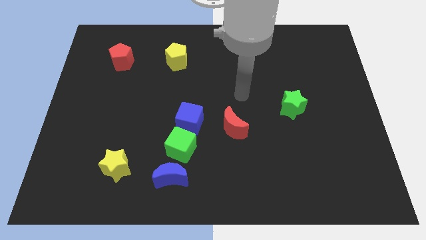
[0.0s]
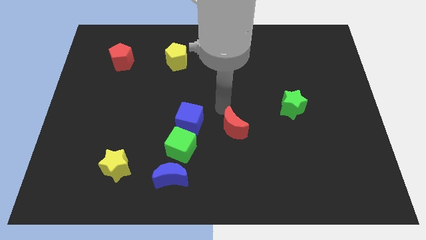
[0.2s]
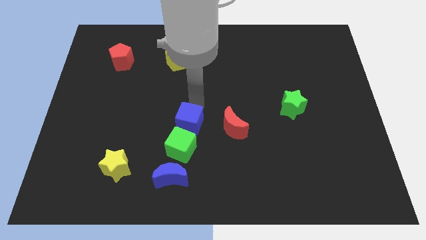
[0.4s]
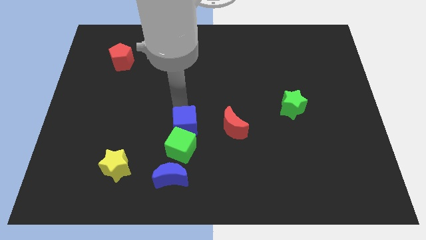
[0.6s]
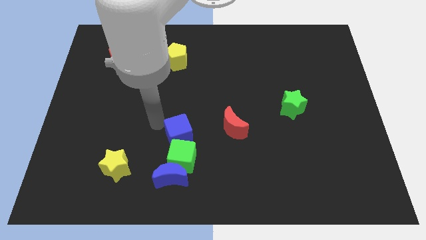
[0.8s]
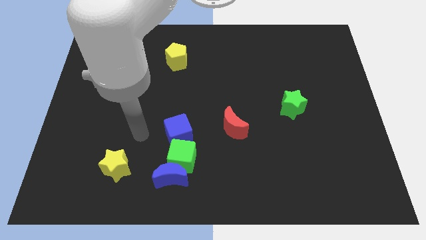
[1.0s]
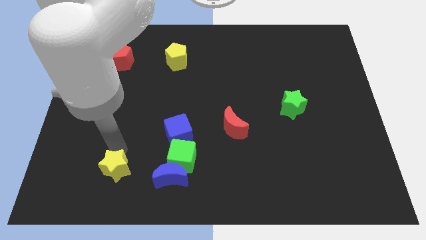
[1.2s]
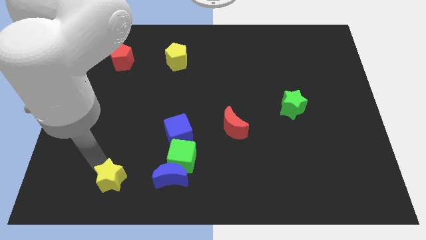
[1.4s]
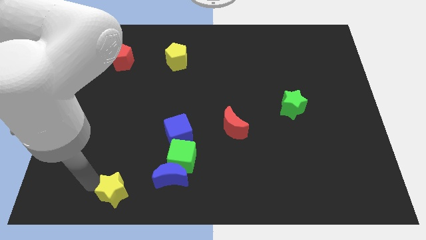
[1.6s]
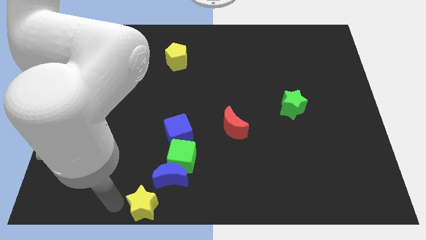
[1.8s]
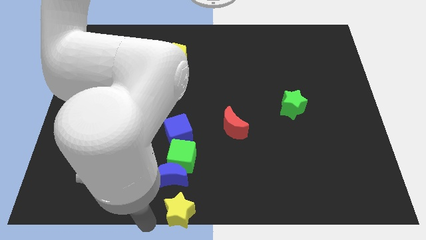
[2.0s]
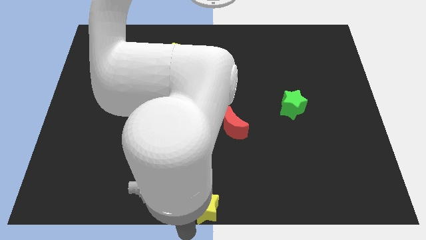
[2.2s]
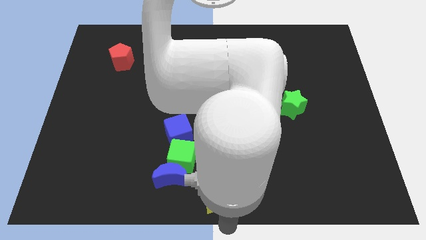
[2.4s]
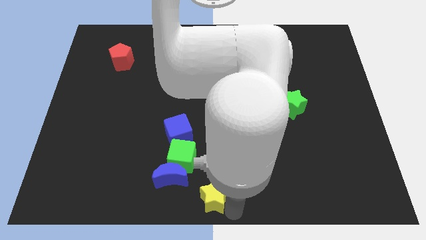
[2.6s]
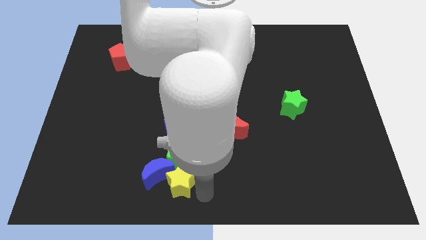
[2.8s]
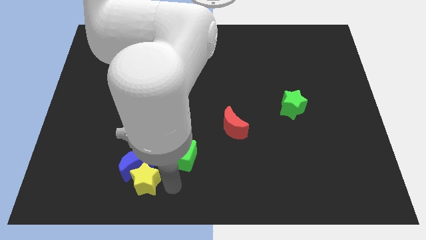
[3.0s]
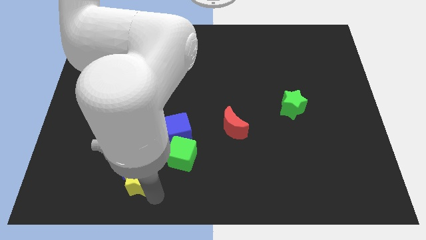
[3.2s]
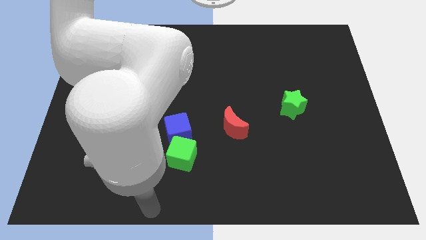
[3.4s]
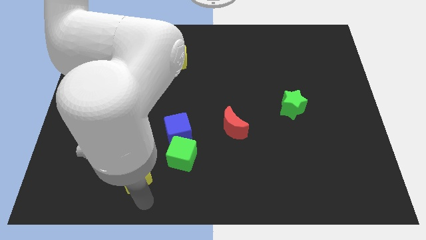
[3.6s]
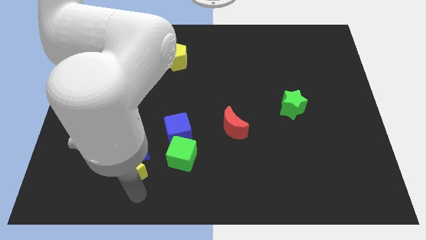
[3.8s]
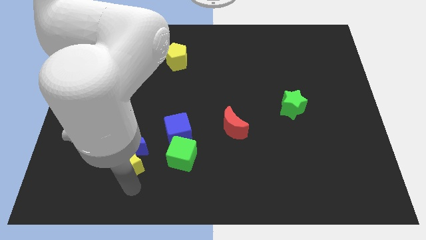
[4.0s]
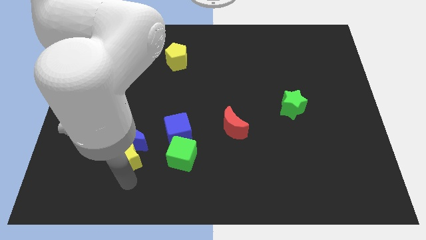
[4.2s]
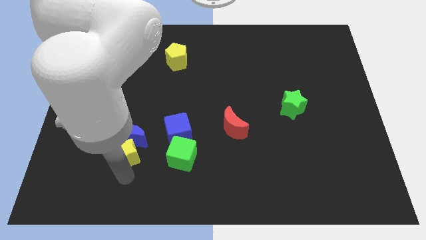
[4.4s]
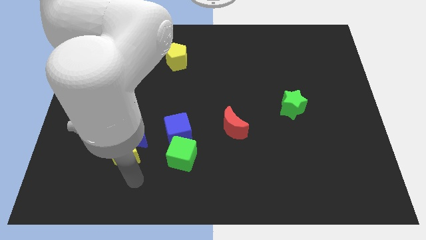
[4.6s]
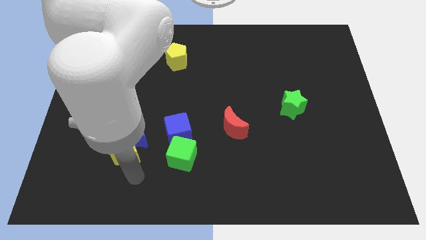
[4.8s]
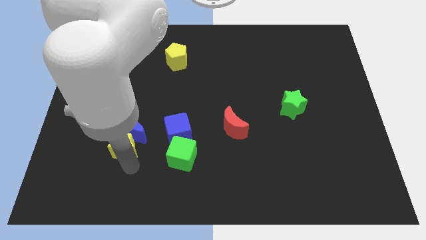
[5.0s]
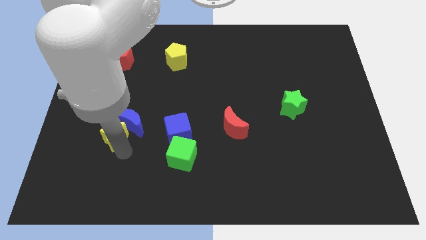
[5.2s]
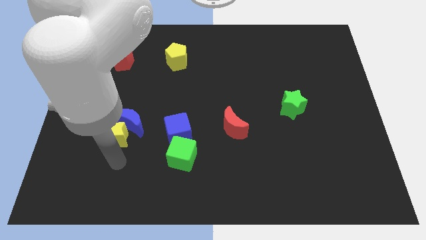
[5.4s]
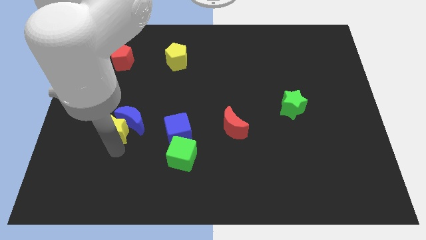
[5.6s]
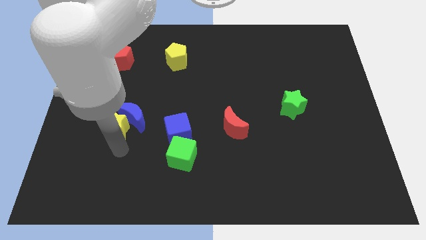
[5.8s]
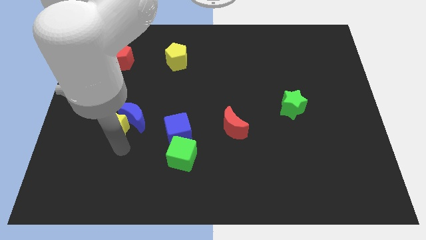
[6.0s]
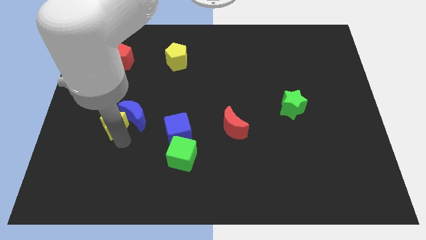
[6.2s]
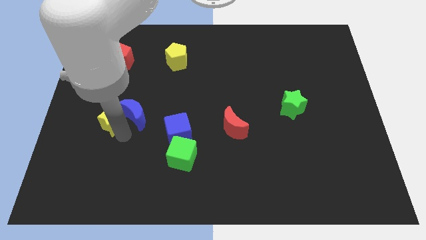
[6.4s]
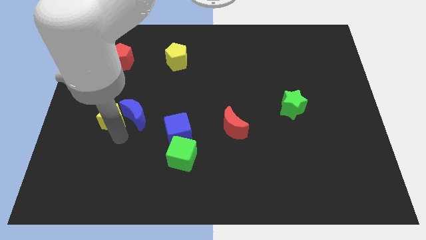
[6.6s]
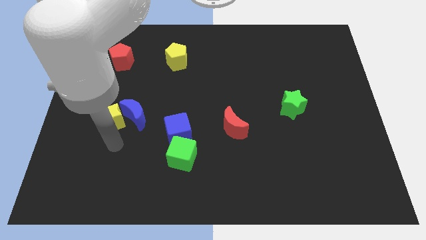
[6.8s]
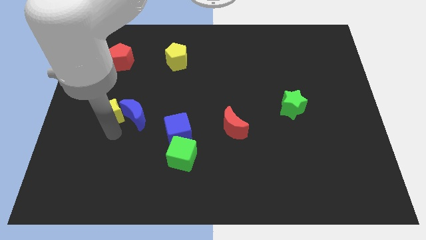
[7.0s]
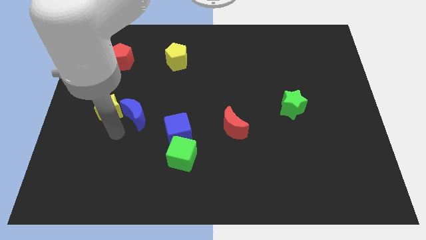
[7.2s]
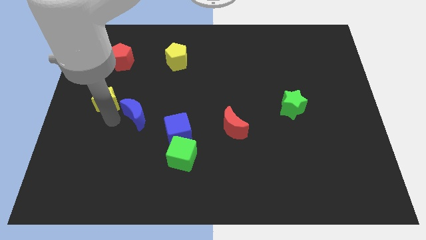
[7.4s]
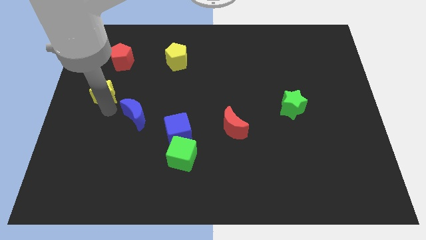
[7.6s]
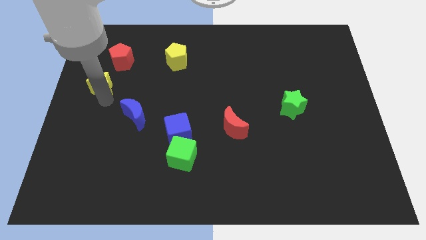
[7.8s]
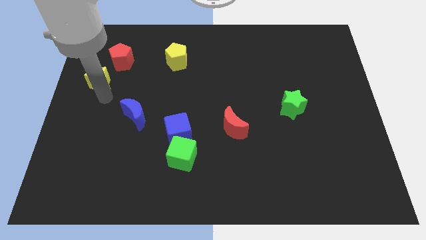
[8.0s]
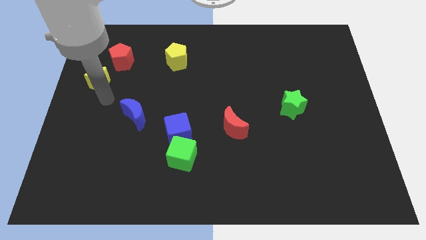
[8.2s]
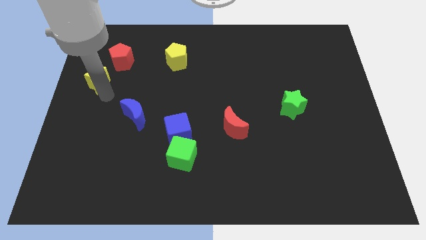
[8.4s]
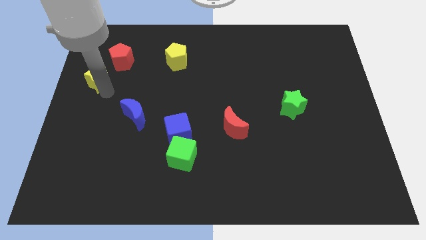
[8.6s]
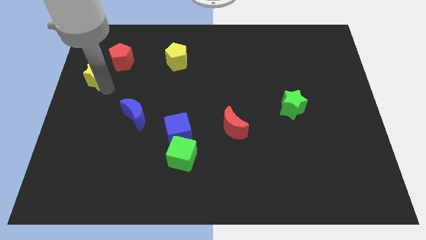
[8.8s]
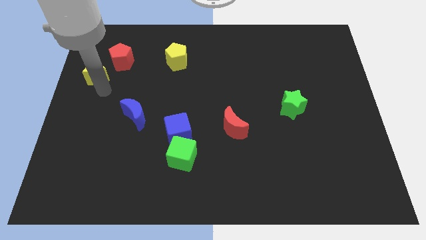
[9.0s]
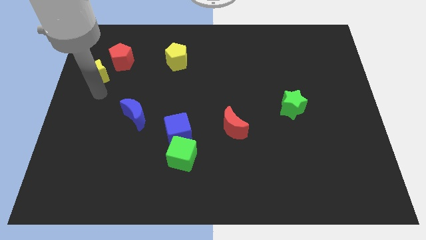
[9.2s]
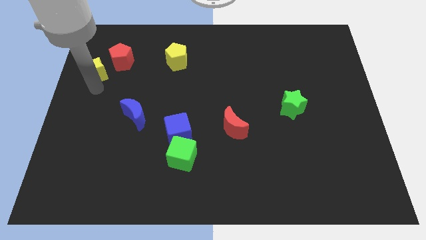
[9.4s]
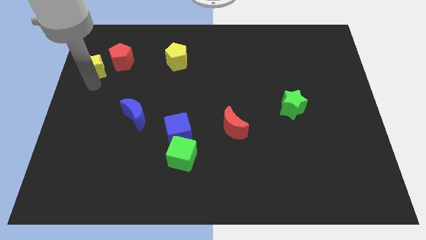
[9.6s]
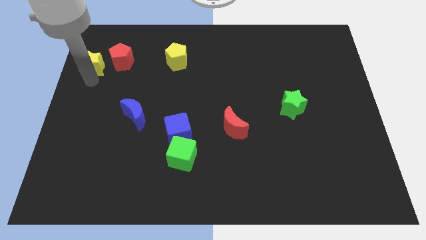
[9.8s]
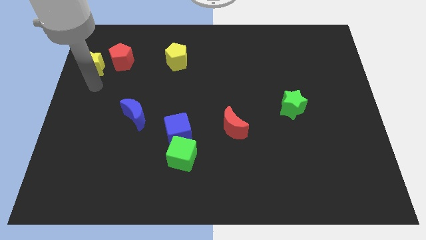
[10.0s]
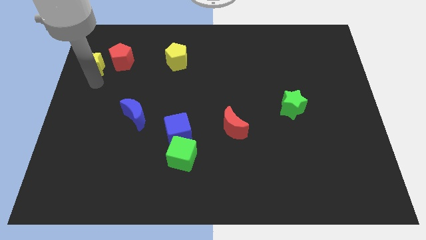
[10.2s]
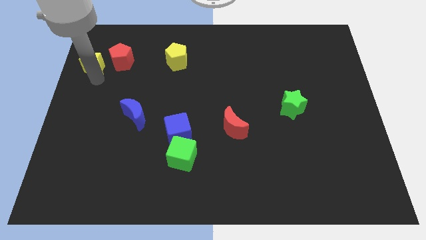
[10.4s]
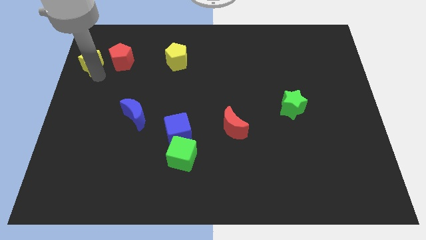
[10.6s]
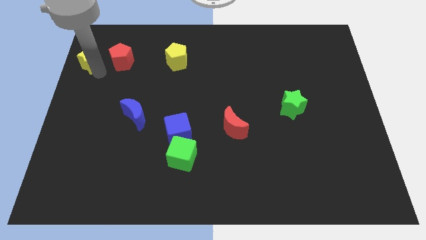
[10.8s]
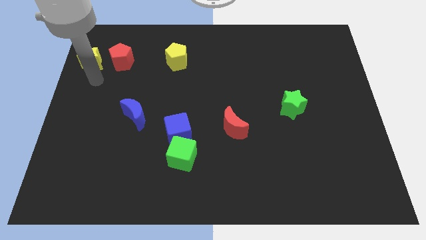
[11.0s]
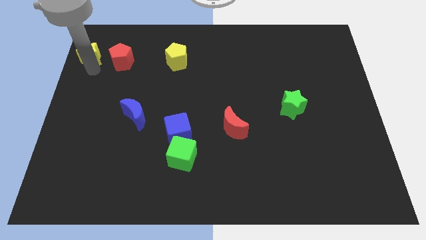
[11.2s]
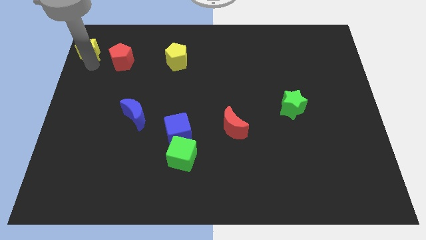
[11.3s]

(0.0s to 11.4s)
move the yellow star to the top left
